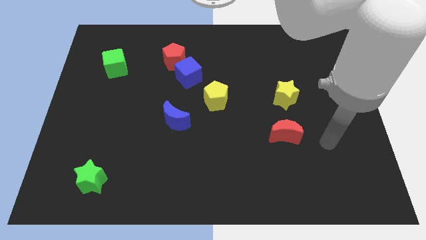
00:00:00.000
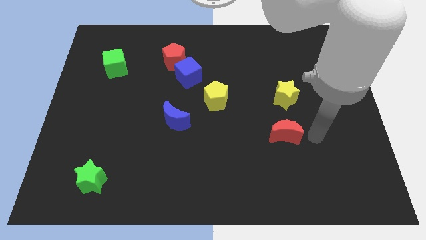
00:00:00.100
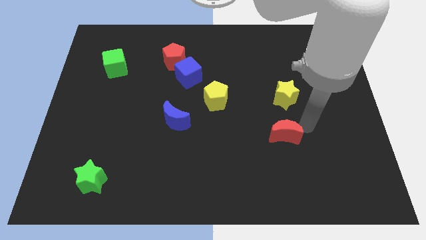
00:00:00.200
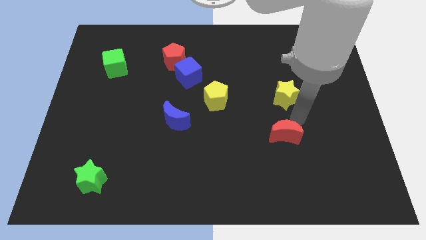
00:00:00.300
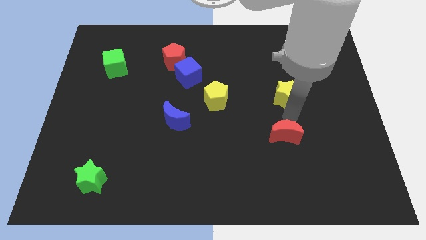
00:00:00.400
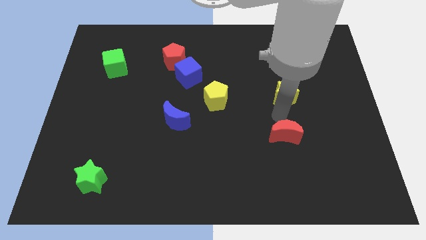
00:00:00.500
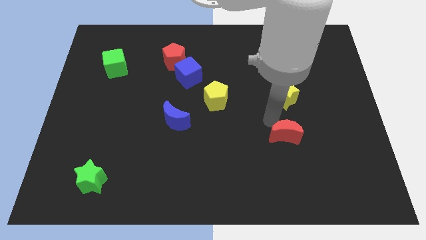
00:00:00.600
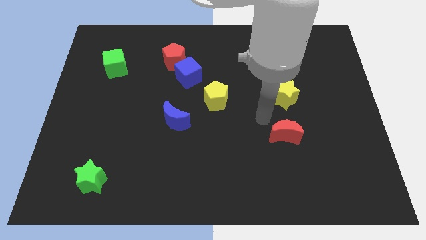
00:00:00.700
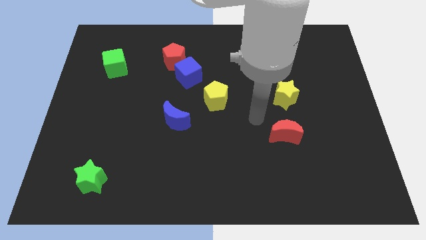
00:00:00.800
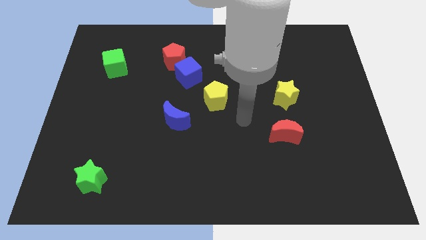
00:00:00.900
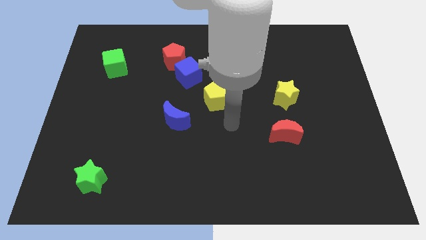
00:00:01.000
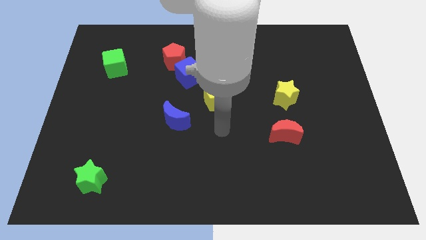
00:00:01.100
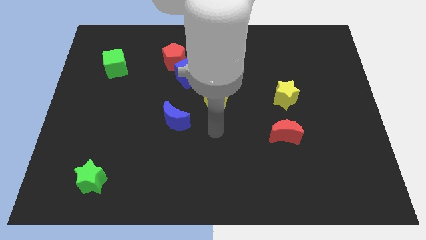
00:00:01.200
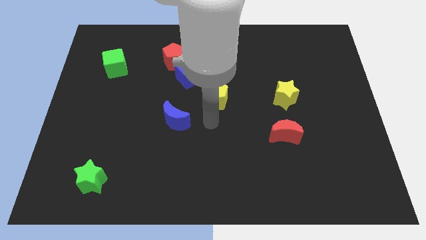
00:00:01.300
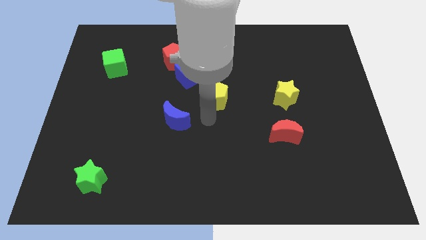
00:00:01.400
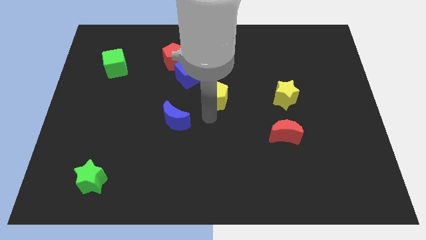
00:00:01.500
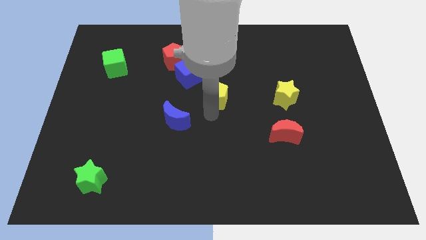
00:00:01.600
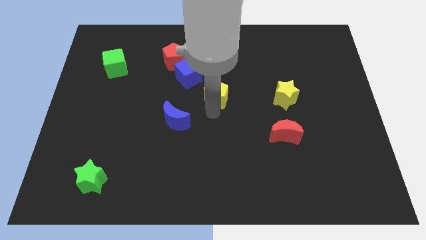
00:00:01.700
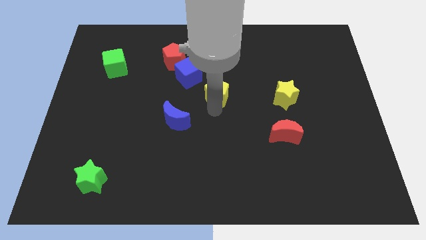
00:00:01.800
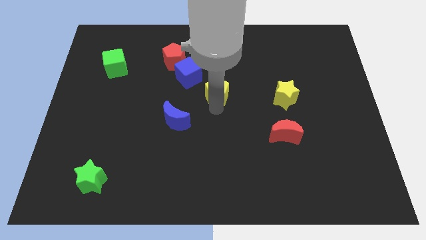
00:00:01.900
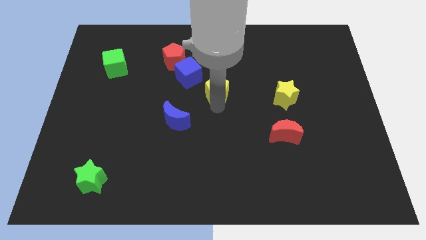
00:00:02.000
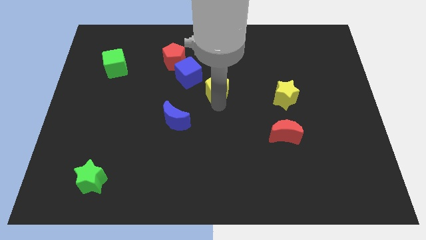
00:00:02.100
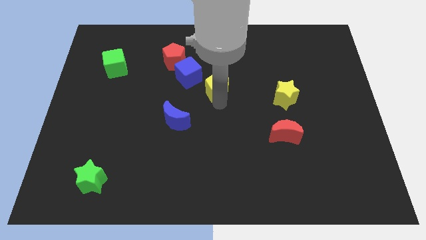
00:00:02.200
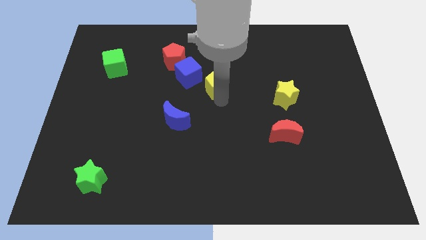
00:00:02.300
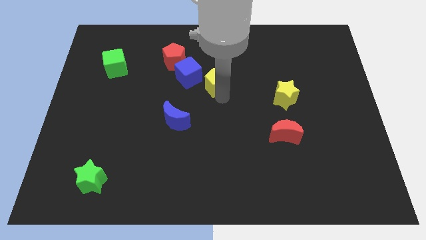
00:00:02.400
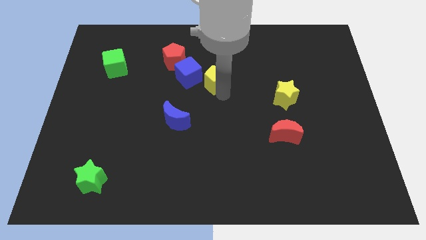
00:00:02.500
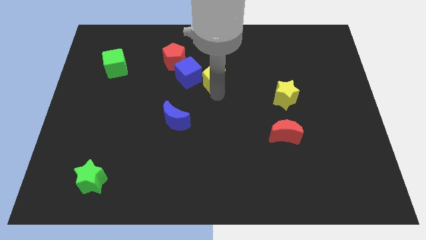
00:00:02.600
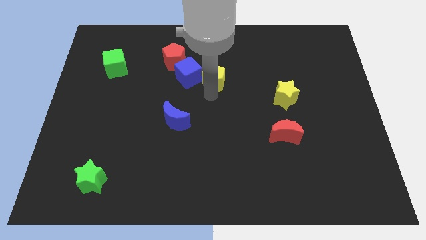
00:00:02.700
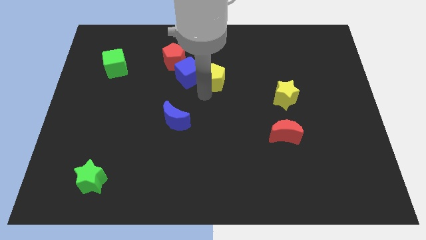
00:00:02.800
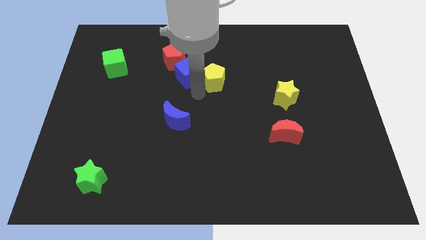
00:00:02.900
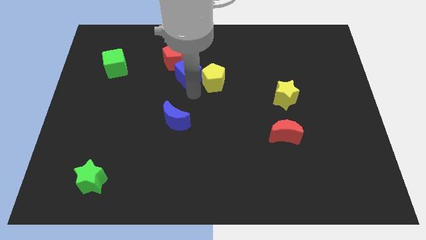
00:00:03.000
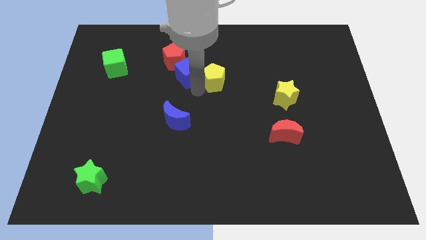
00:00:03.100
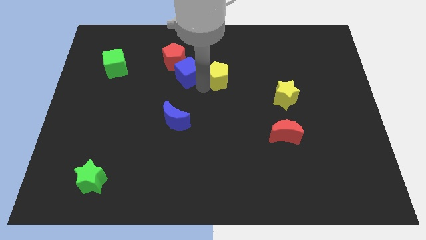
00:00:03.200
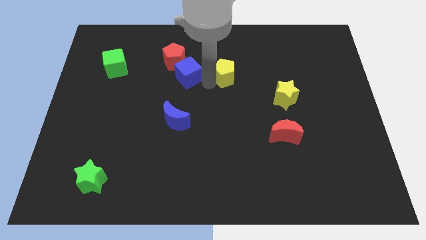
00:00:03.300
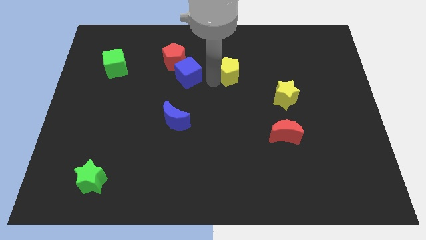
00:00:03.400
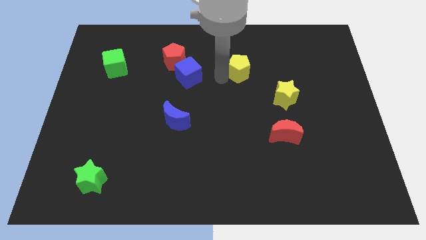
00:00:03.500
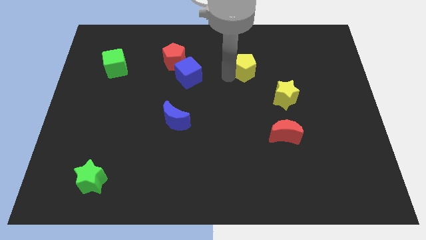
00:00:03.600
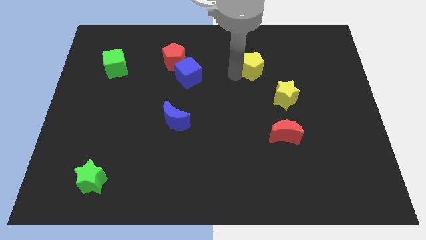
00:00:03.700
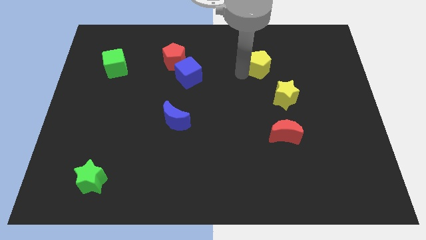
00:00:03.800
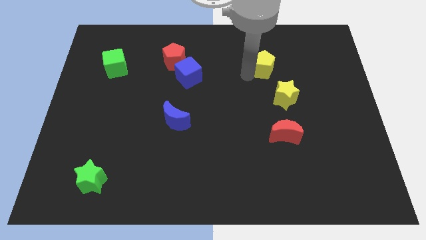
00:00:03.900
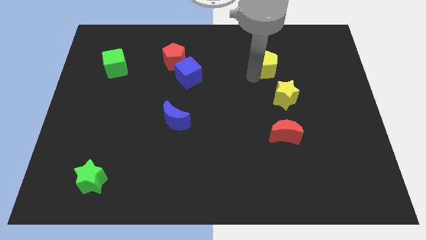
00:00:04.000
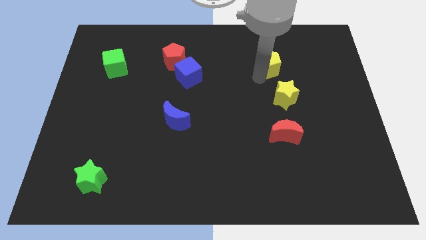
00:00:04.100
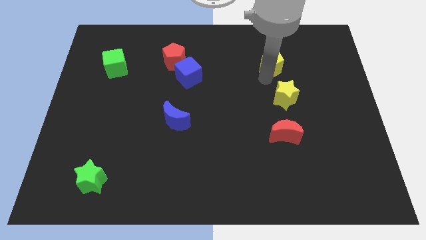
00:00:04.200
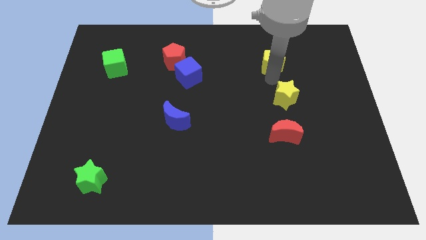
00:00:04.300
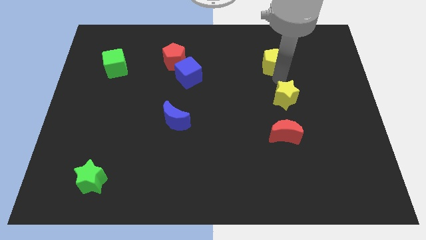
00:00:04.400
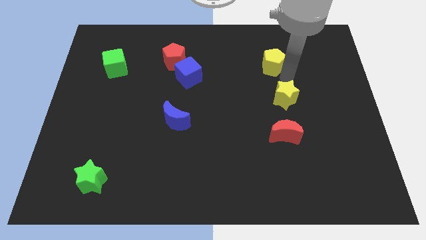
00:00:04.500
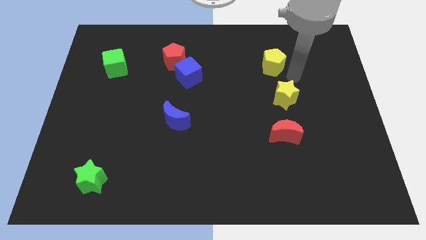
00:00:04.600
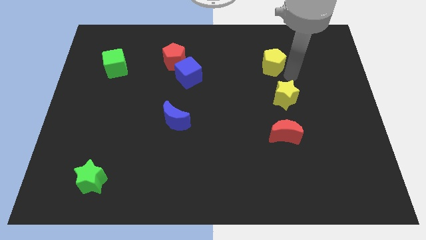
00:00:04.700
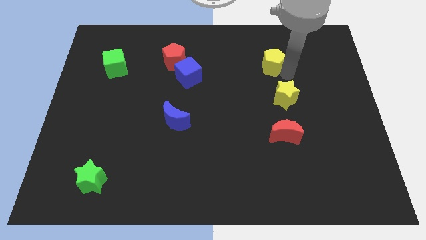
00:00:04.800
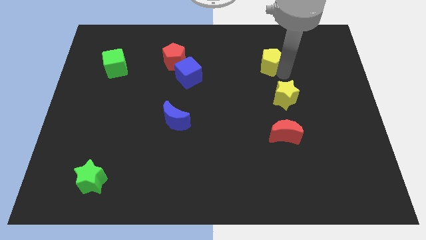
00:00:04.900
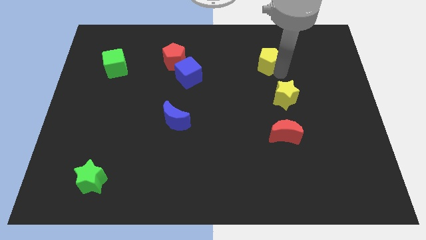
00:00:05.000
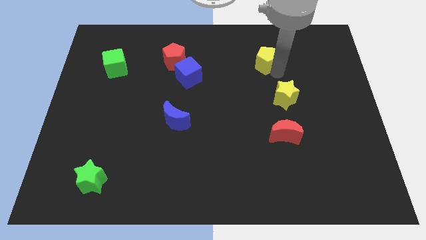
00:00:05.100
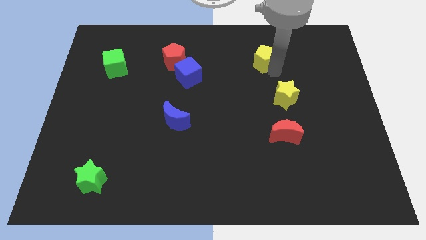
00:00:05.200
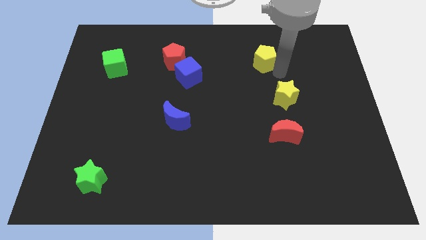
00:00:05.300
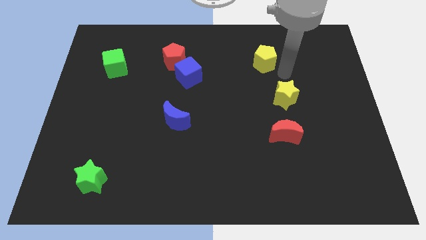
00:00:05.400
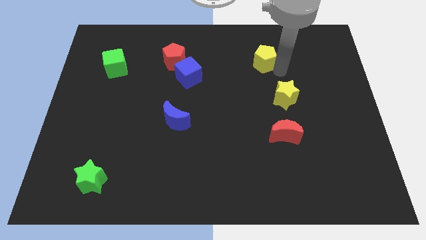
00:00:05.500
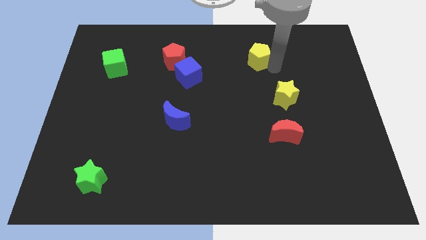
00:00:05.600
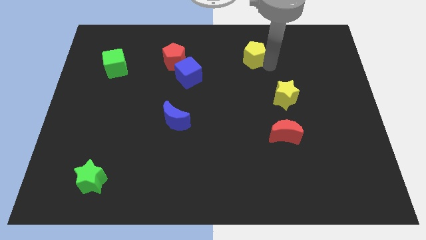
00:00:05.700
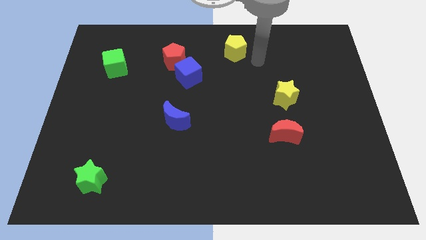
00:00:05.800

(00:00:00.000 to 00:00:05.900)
move the yellow pentagon to the towards your base

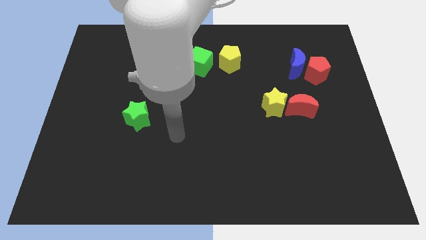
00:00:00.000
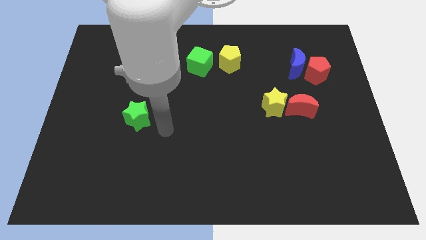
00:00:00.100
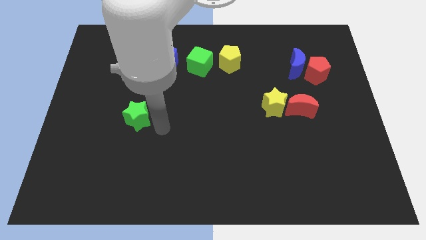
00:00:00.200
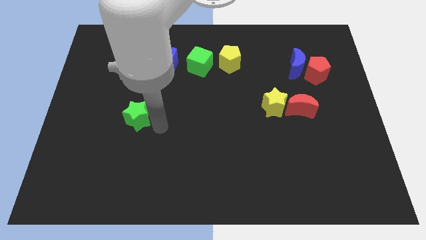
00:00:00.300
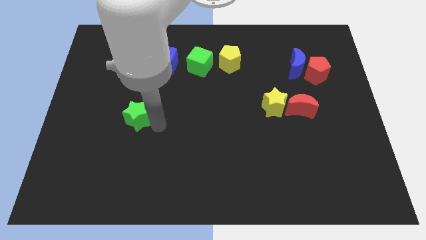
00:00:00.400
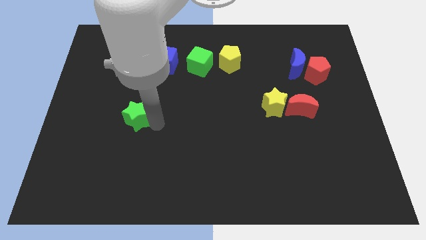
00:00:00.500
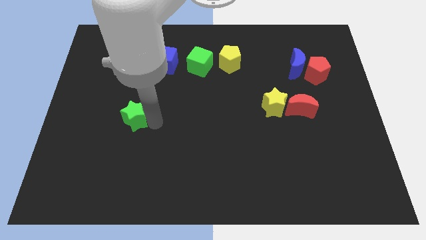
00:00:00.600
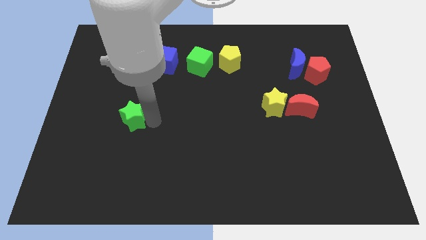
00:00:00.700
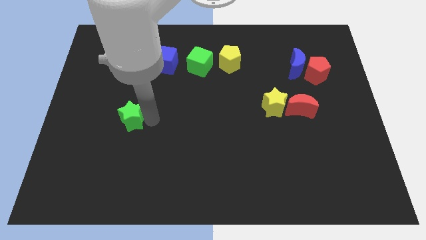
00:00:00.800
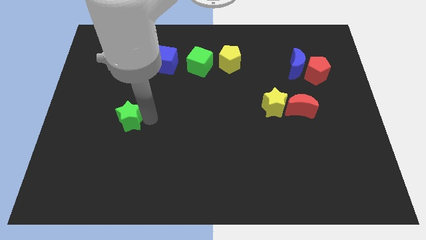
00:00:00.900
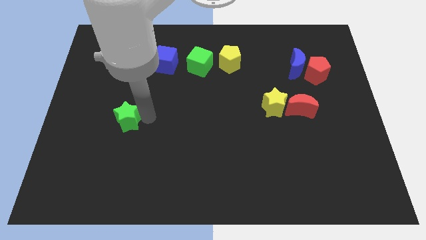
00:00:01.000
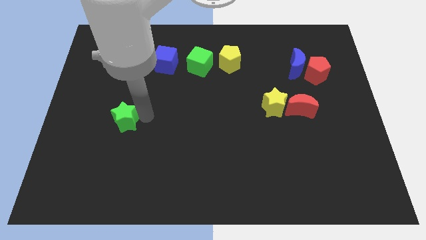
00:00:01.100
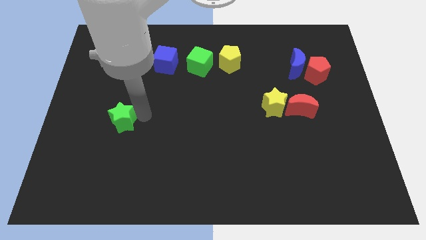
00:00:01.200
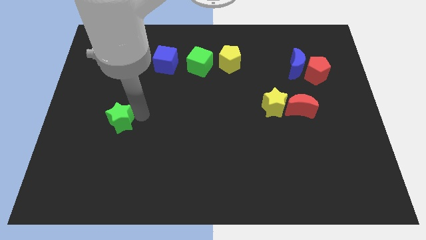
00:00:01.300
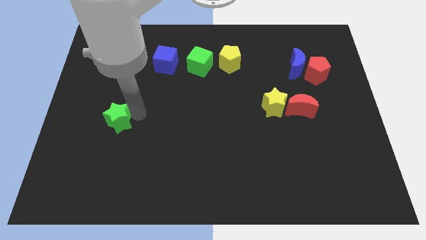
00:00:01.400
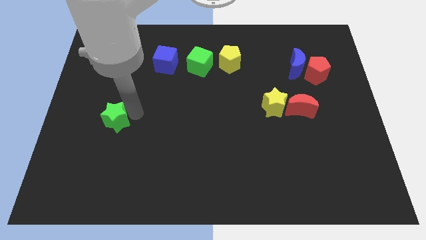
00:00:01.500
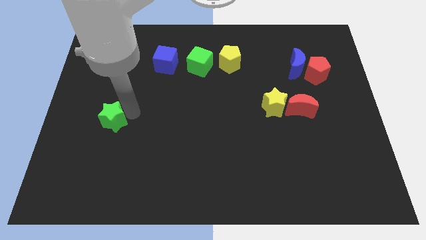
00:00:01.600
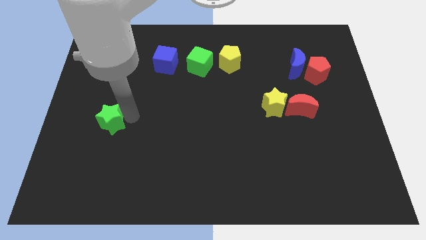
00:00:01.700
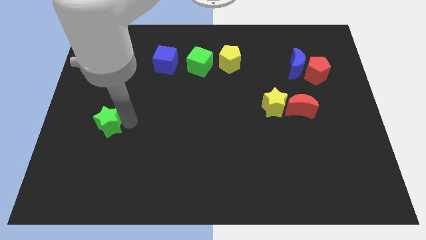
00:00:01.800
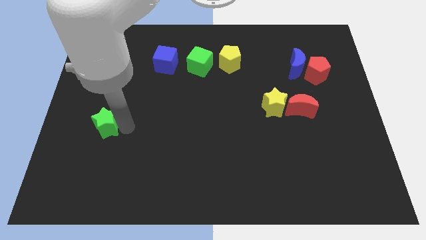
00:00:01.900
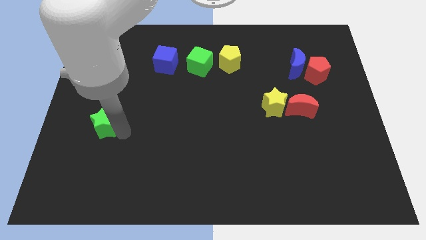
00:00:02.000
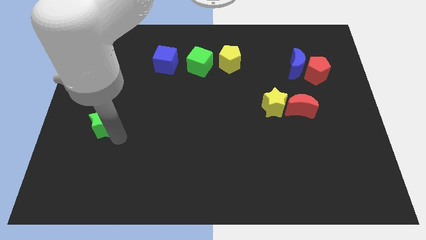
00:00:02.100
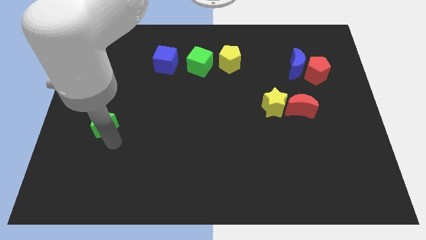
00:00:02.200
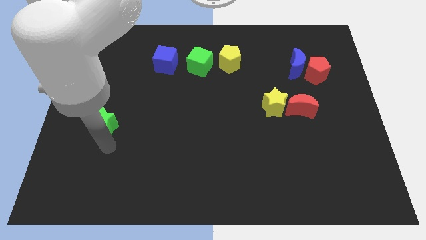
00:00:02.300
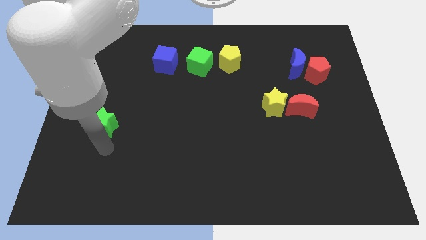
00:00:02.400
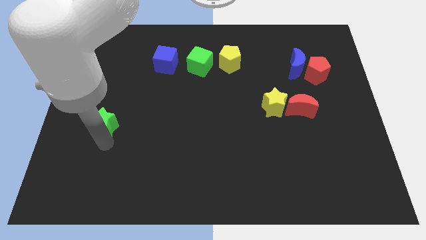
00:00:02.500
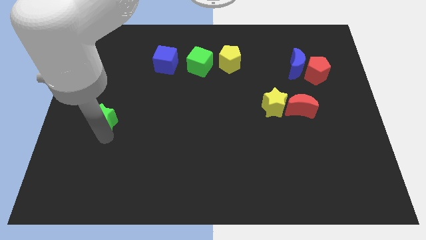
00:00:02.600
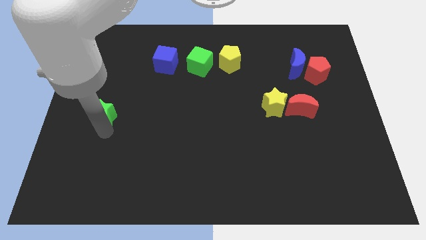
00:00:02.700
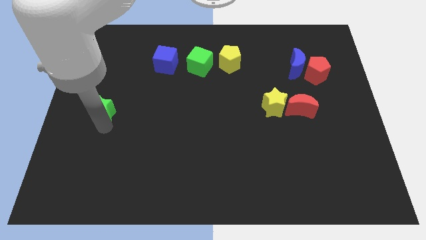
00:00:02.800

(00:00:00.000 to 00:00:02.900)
move the green star to the center left
